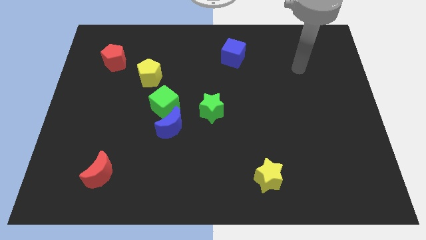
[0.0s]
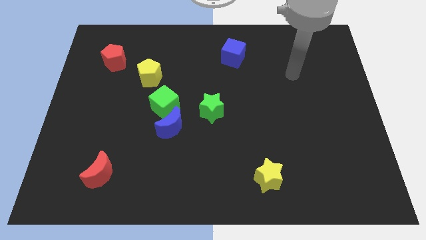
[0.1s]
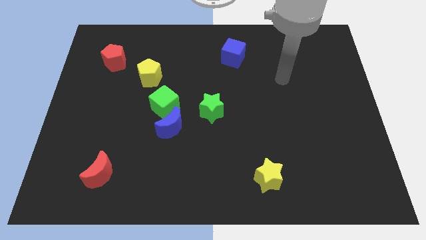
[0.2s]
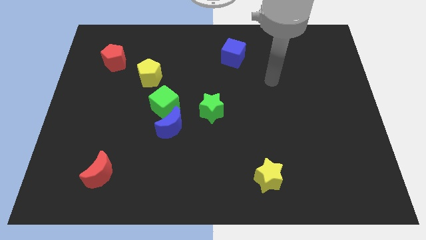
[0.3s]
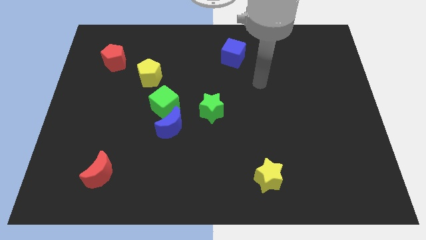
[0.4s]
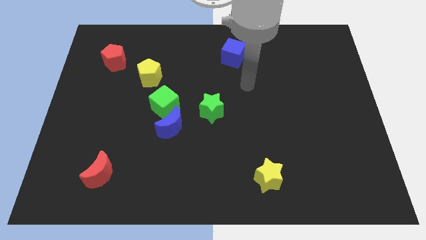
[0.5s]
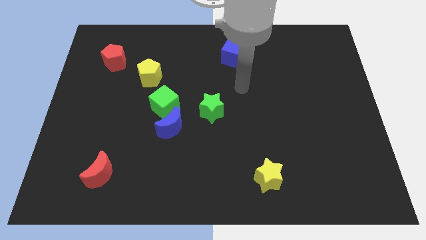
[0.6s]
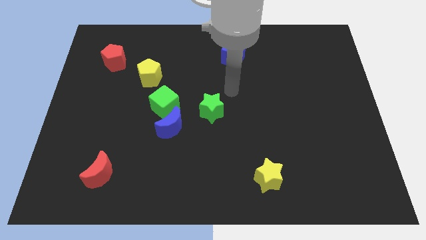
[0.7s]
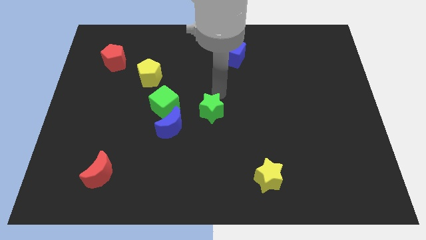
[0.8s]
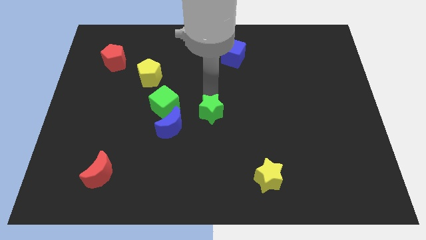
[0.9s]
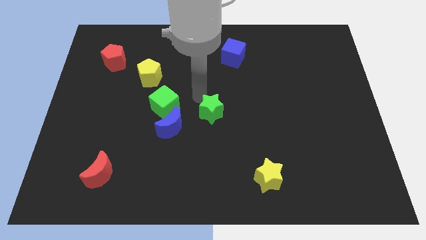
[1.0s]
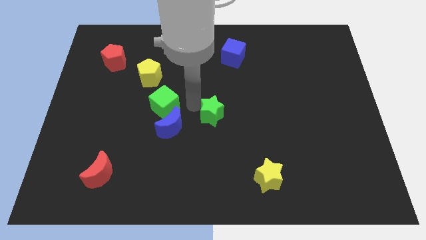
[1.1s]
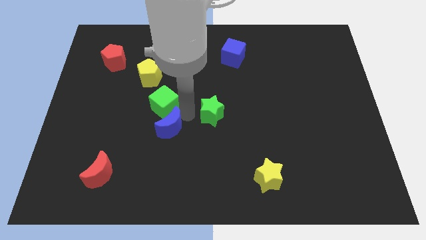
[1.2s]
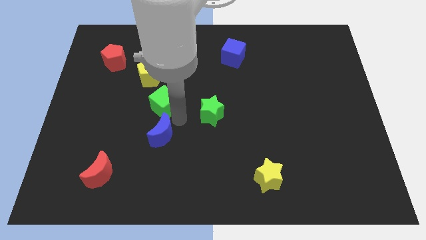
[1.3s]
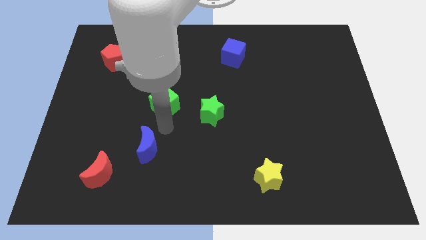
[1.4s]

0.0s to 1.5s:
move the green cube away from the blue moon

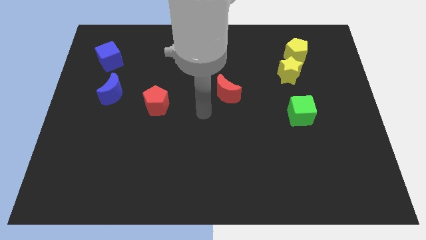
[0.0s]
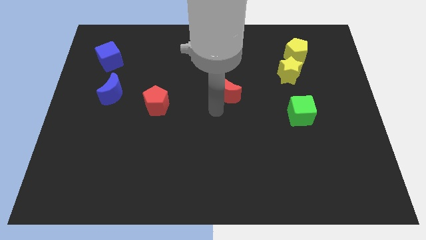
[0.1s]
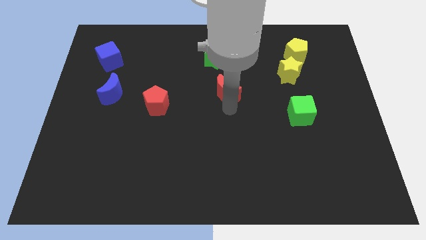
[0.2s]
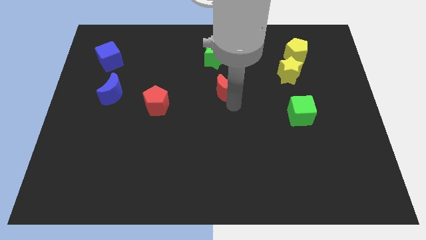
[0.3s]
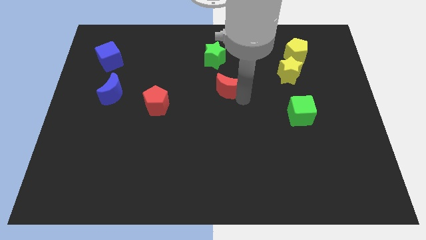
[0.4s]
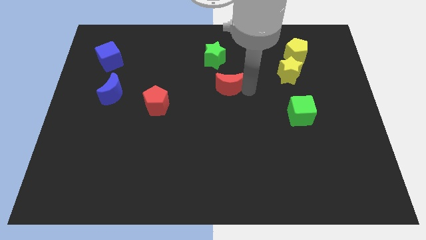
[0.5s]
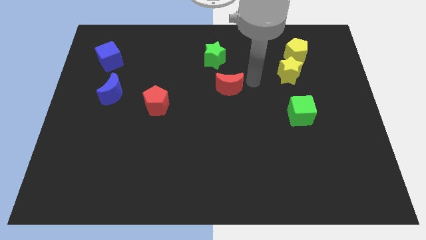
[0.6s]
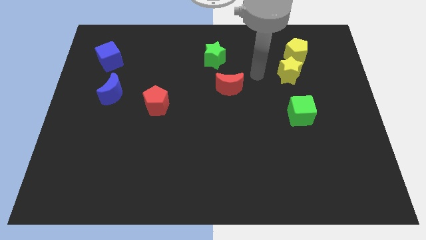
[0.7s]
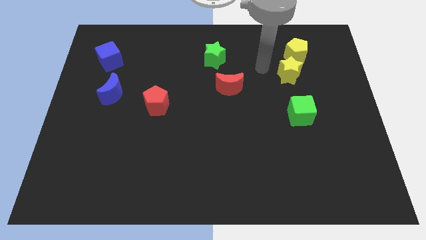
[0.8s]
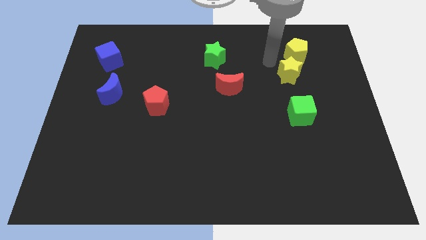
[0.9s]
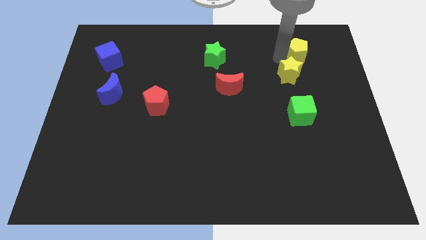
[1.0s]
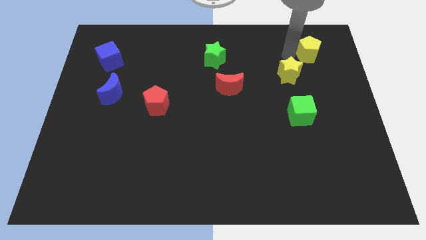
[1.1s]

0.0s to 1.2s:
separate the yellow star from the yellow pentagon

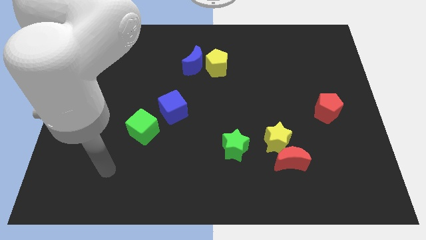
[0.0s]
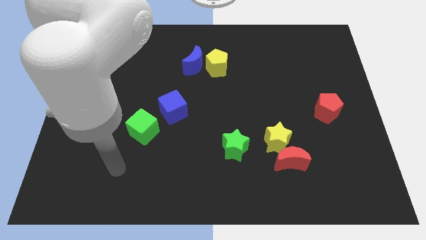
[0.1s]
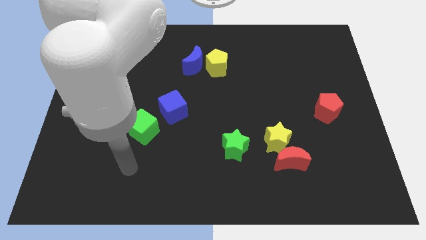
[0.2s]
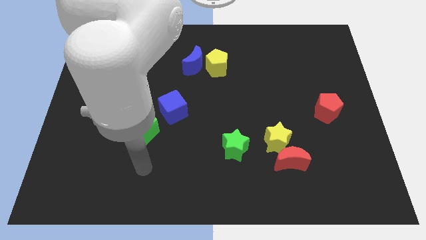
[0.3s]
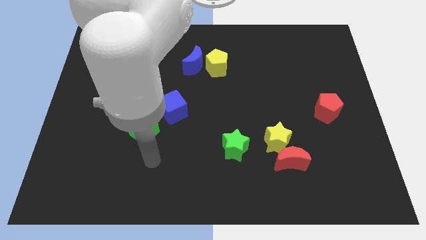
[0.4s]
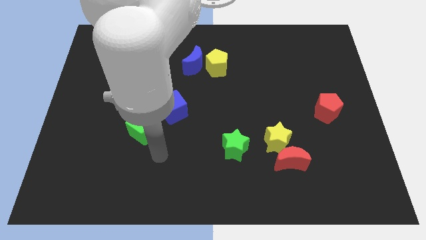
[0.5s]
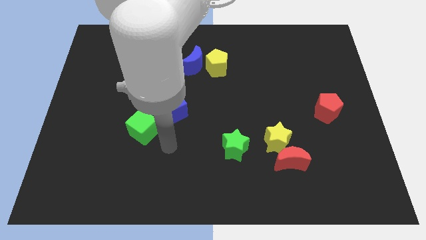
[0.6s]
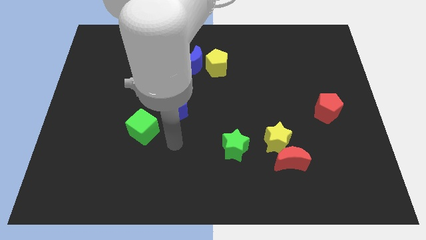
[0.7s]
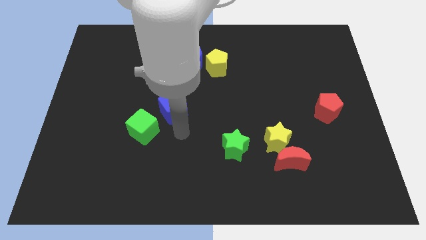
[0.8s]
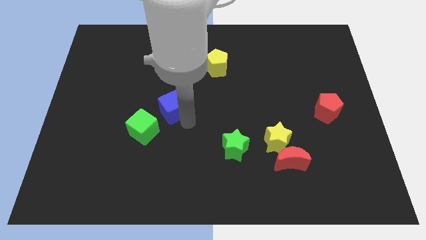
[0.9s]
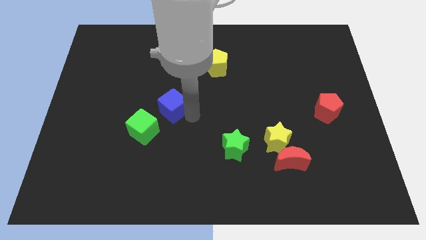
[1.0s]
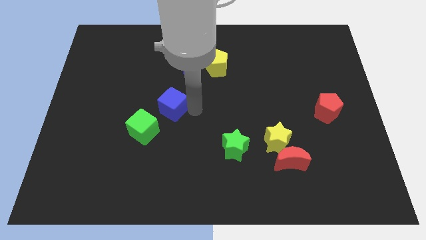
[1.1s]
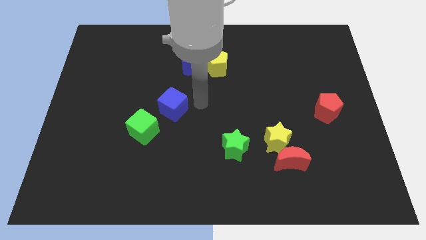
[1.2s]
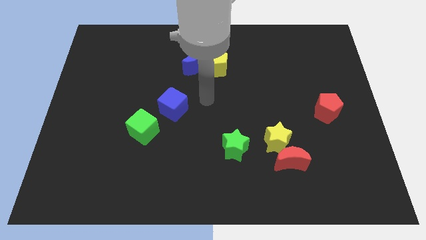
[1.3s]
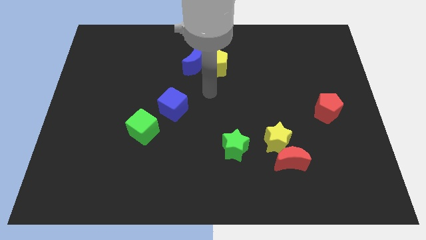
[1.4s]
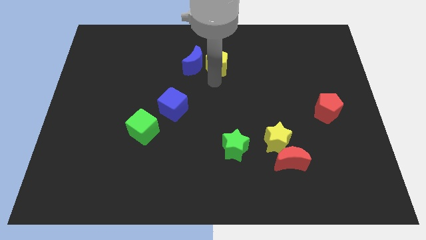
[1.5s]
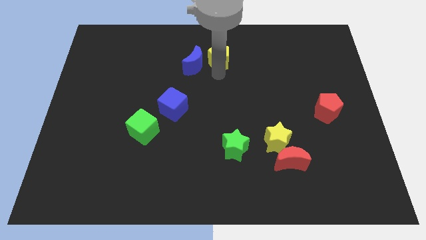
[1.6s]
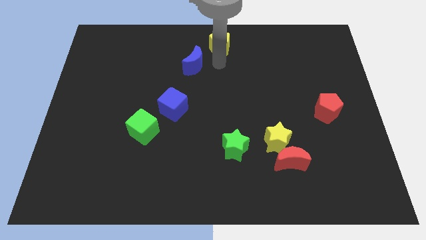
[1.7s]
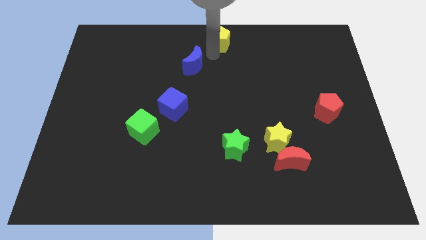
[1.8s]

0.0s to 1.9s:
pull the blue moon apart from the yellow pentagon

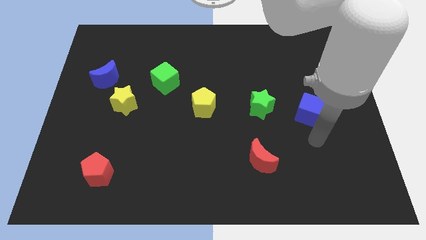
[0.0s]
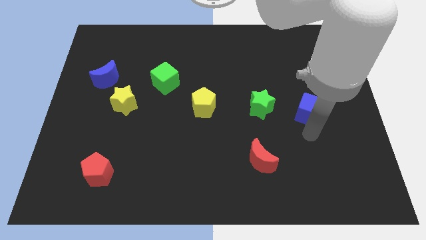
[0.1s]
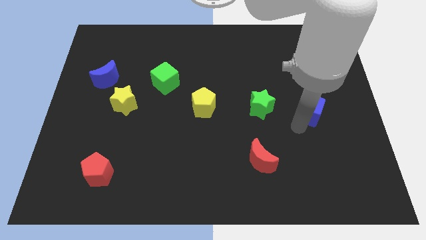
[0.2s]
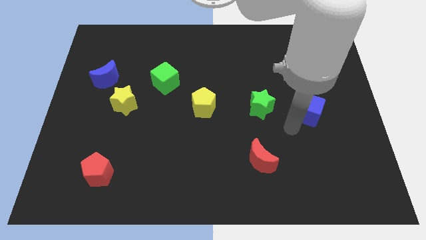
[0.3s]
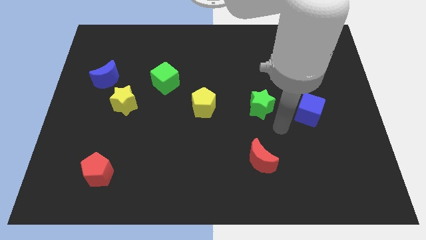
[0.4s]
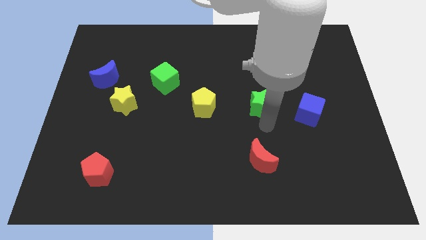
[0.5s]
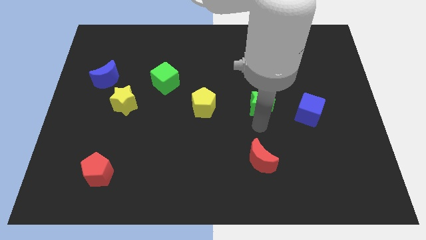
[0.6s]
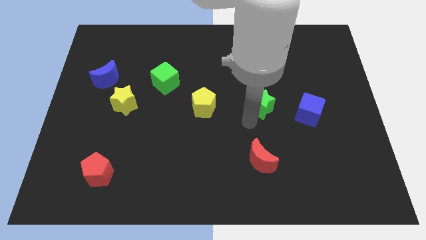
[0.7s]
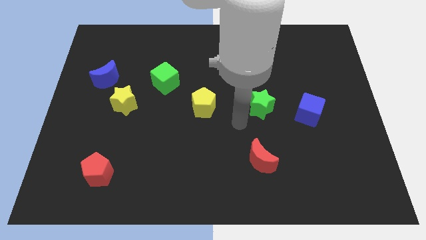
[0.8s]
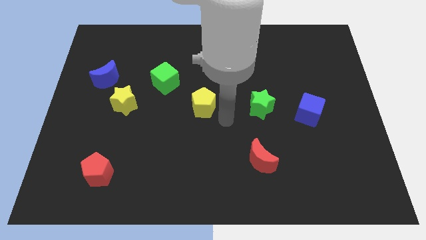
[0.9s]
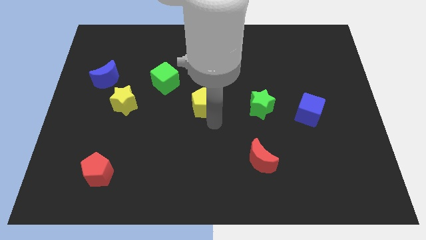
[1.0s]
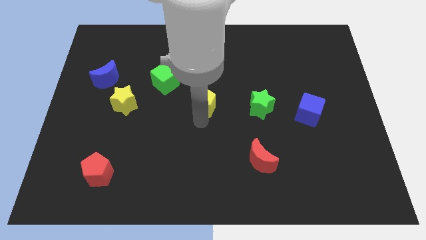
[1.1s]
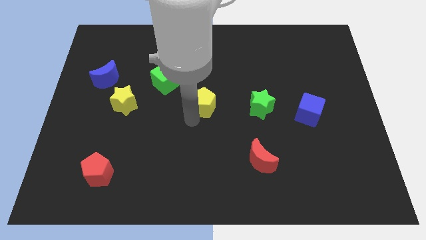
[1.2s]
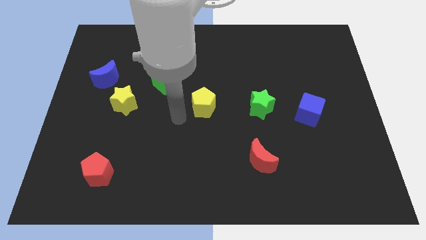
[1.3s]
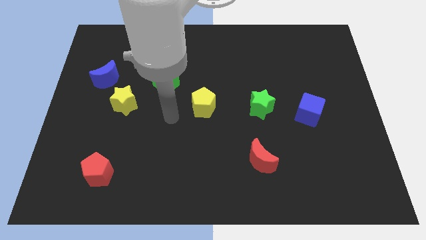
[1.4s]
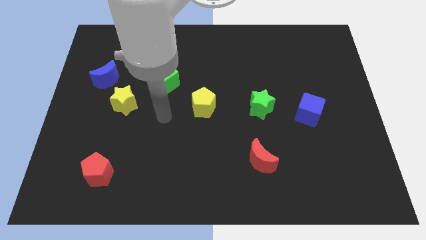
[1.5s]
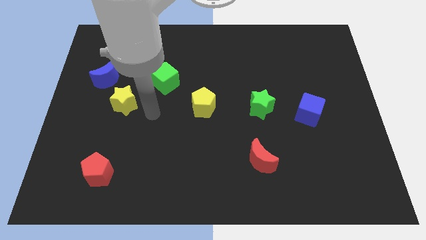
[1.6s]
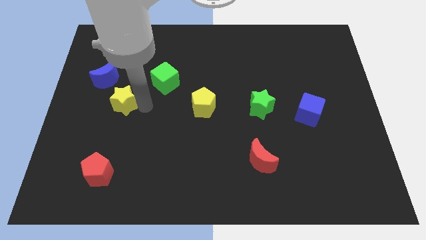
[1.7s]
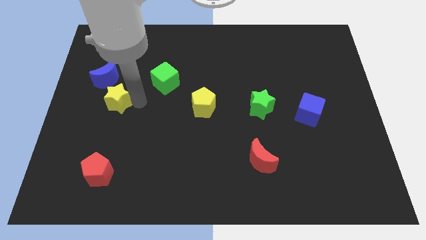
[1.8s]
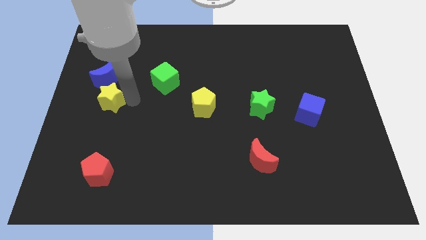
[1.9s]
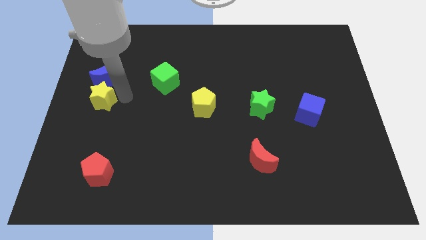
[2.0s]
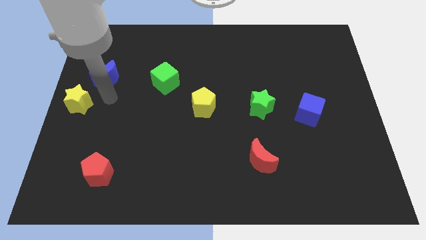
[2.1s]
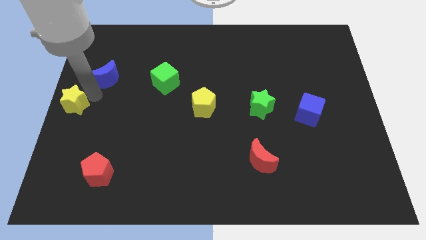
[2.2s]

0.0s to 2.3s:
separate the blue moon from the yellow star

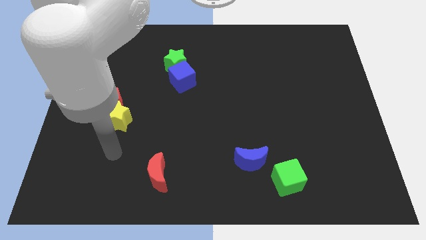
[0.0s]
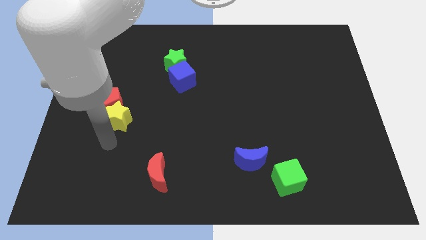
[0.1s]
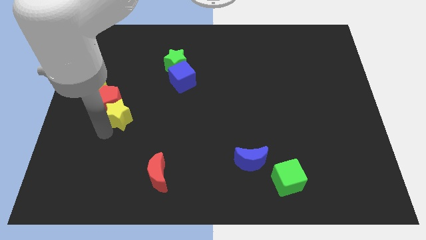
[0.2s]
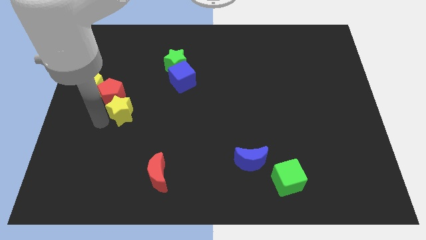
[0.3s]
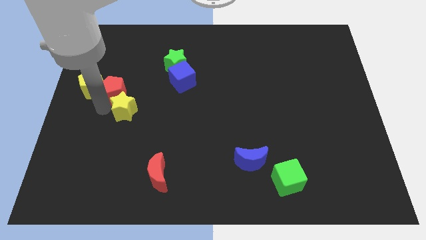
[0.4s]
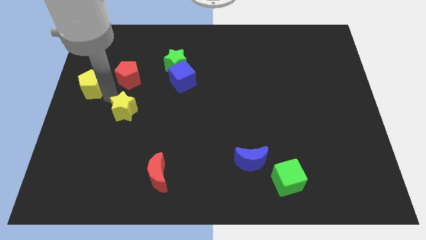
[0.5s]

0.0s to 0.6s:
separate the yellow star from the red pentagon

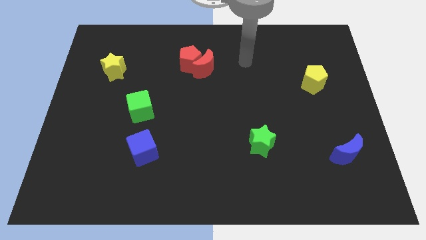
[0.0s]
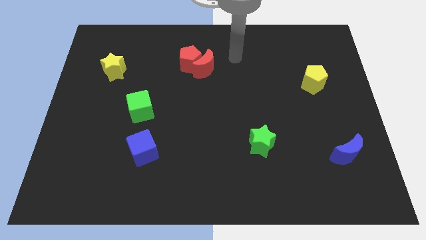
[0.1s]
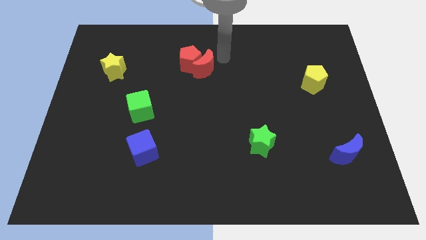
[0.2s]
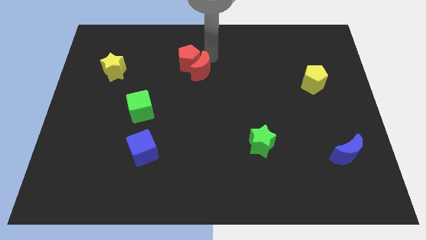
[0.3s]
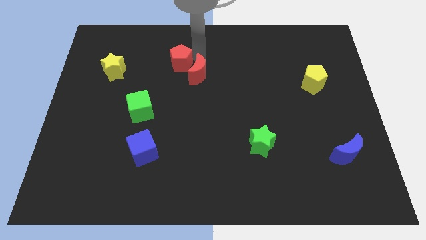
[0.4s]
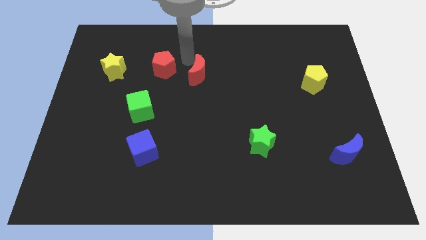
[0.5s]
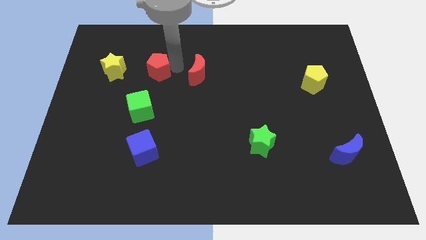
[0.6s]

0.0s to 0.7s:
move the red moon away from the red pentagon

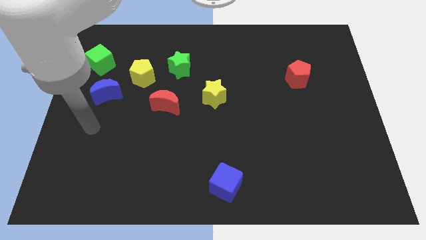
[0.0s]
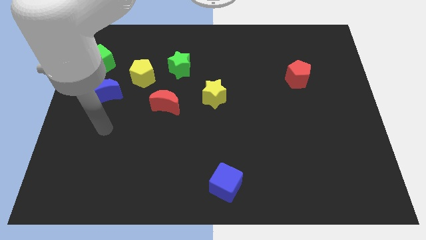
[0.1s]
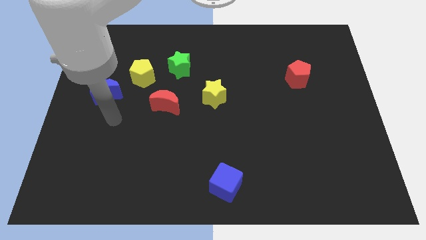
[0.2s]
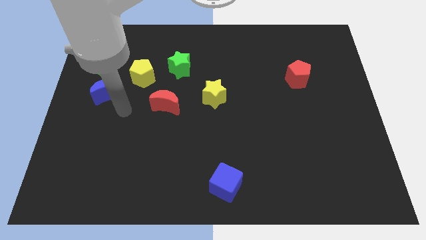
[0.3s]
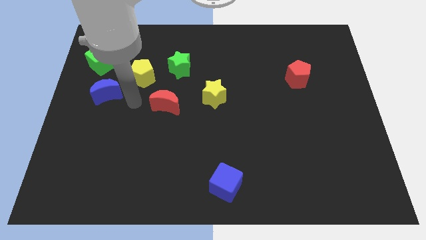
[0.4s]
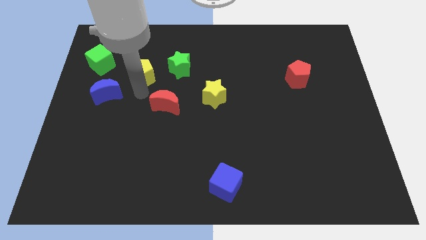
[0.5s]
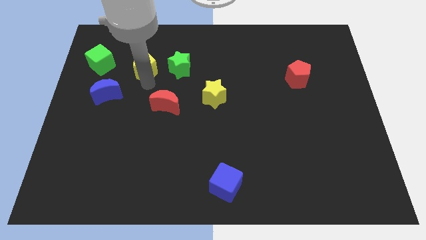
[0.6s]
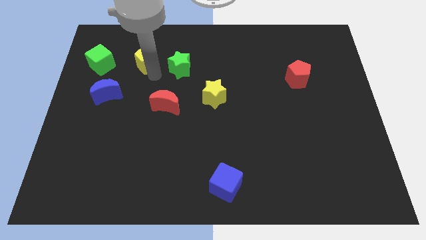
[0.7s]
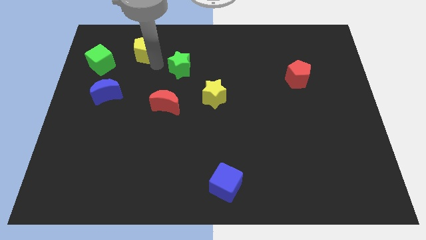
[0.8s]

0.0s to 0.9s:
move the green star away from the yellow pentagon

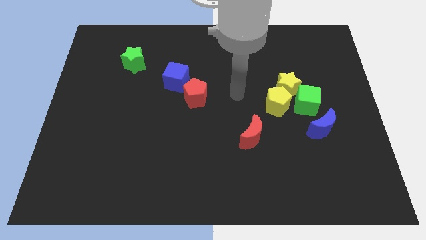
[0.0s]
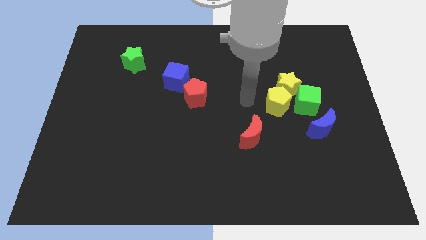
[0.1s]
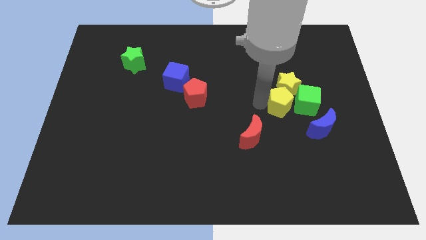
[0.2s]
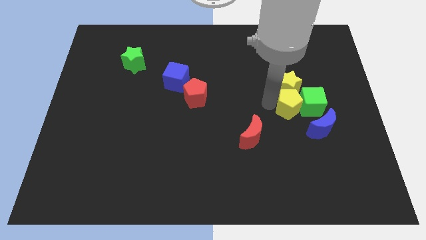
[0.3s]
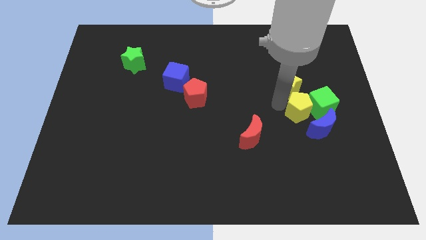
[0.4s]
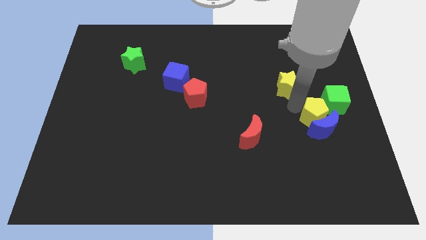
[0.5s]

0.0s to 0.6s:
move the yellow star away from the yellow pentagon and green cube
